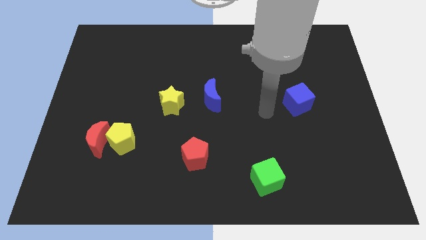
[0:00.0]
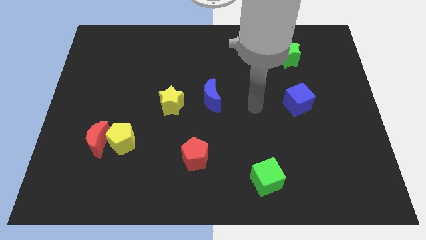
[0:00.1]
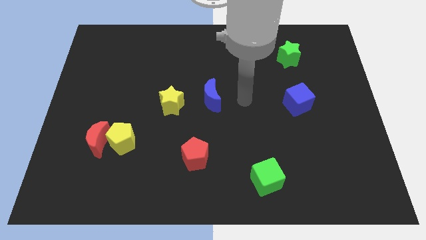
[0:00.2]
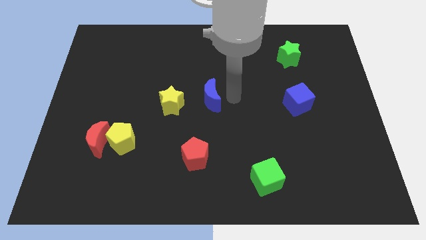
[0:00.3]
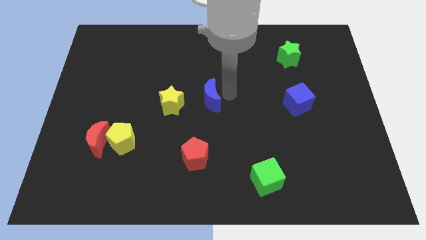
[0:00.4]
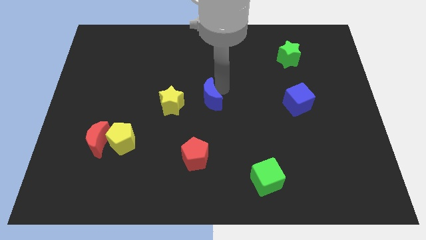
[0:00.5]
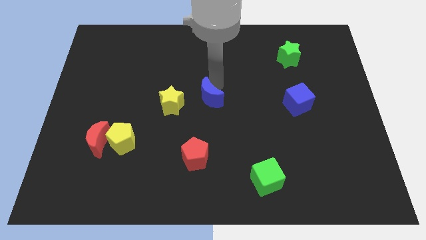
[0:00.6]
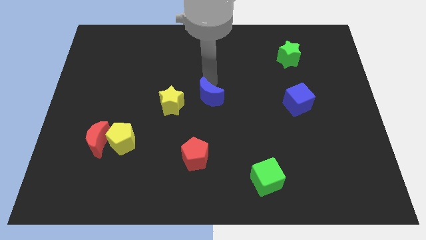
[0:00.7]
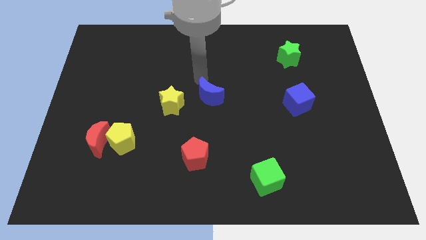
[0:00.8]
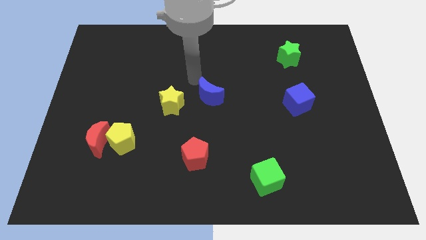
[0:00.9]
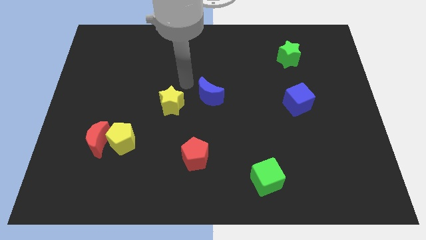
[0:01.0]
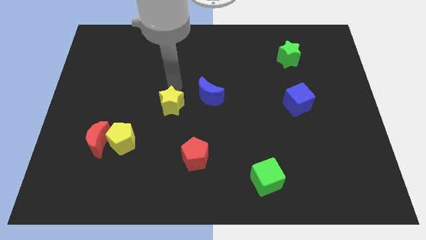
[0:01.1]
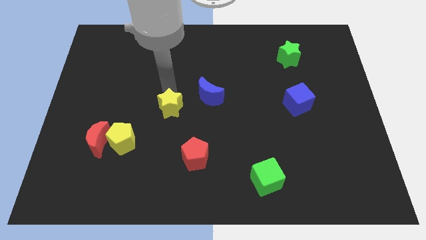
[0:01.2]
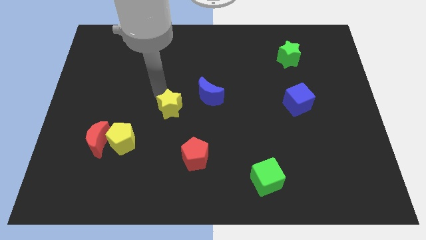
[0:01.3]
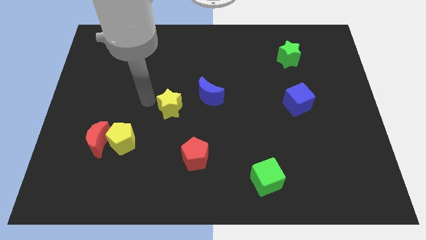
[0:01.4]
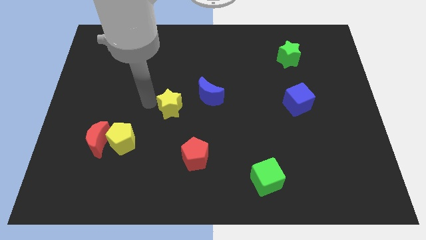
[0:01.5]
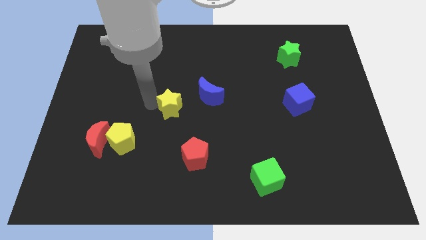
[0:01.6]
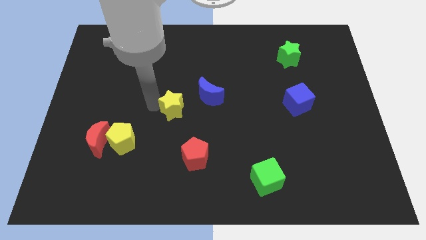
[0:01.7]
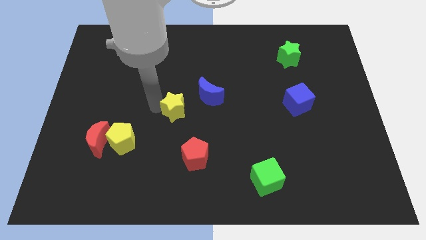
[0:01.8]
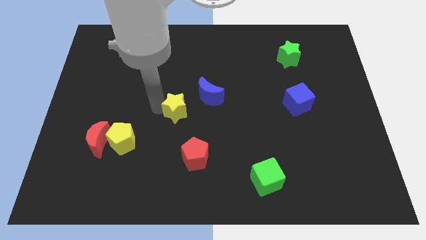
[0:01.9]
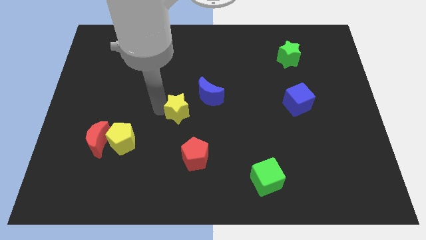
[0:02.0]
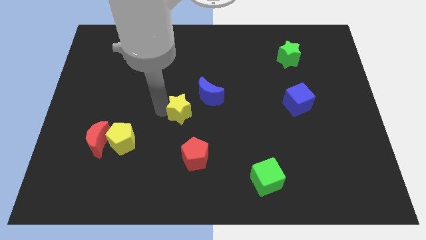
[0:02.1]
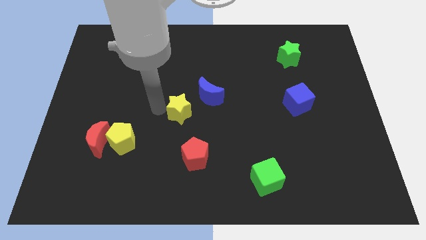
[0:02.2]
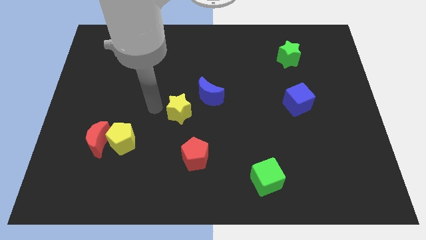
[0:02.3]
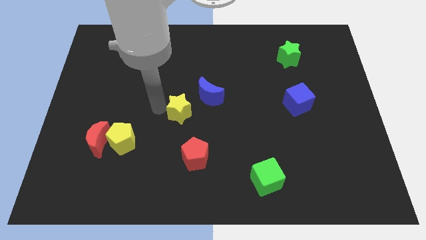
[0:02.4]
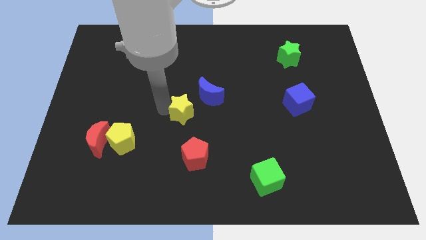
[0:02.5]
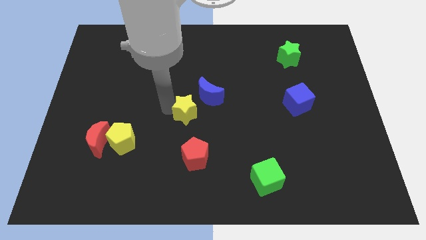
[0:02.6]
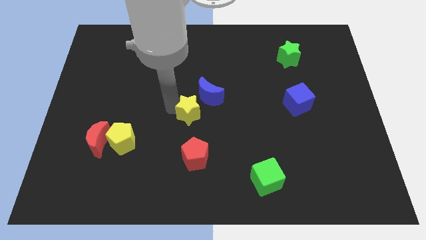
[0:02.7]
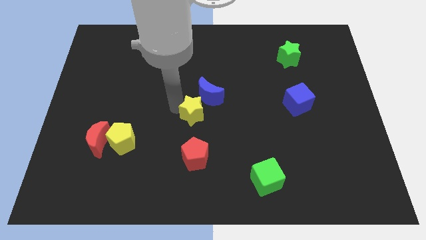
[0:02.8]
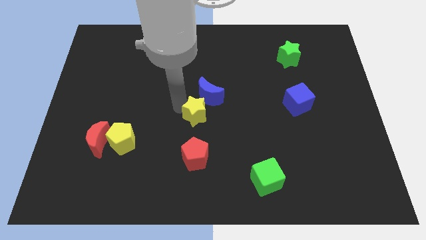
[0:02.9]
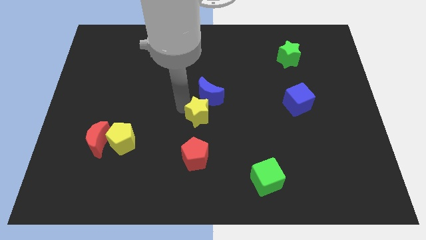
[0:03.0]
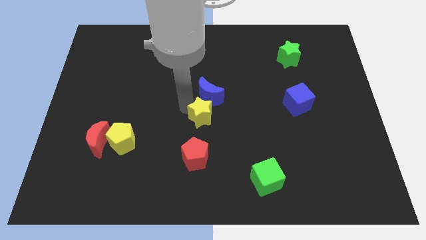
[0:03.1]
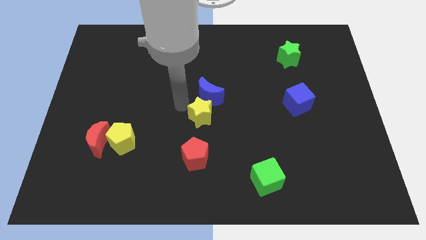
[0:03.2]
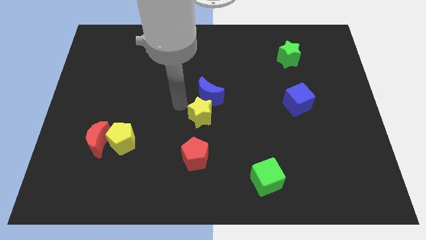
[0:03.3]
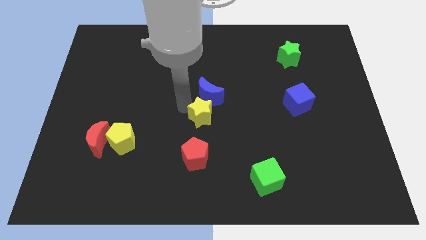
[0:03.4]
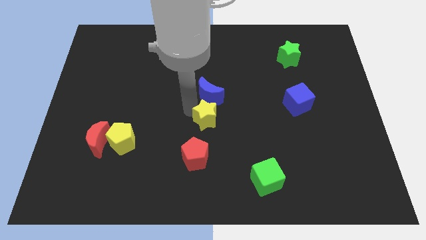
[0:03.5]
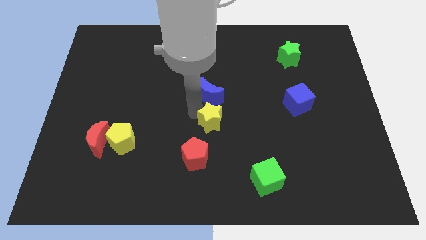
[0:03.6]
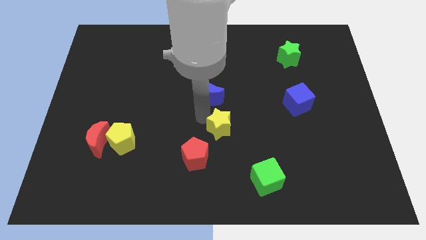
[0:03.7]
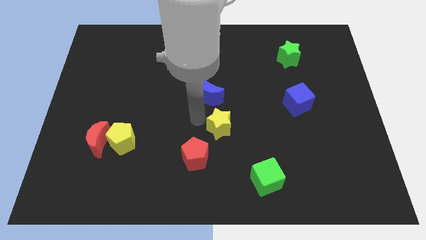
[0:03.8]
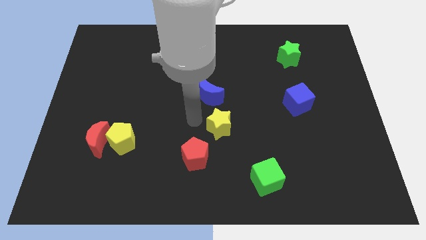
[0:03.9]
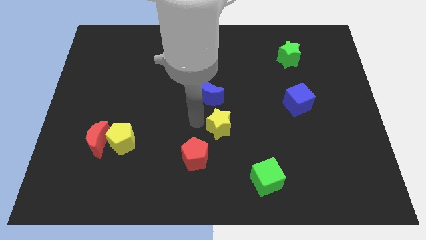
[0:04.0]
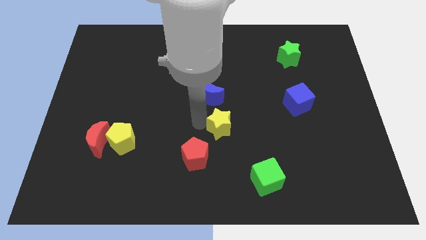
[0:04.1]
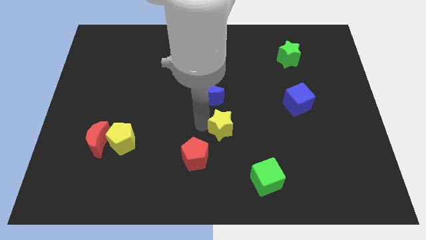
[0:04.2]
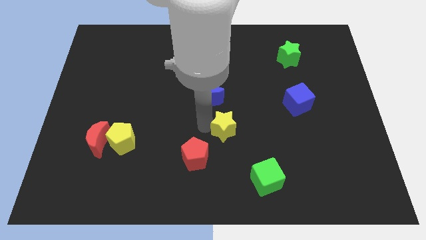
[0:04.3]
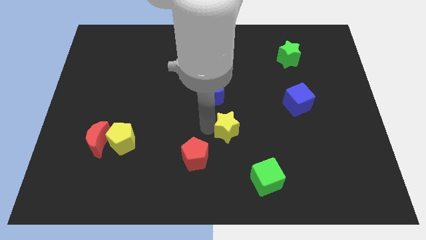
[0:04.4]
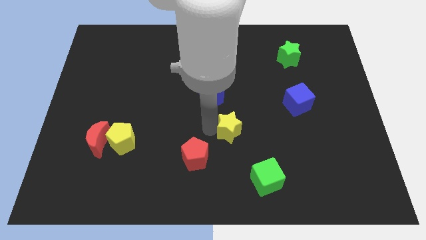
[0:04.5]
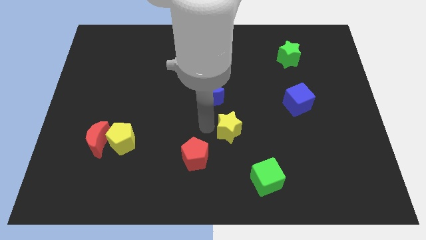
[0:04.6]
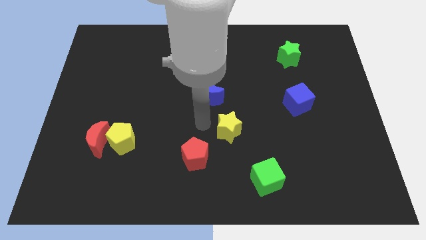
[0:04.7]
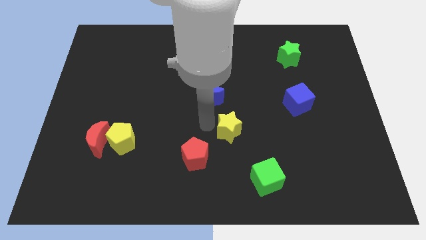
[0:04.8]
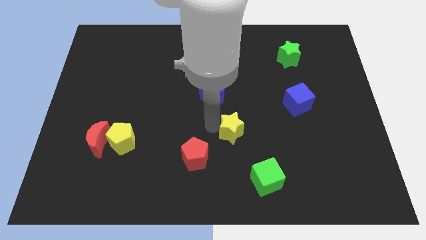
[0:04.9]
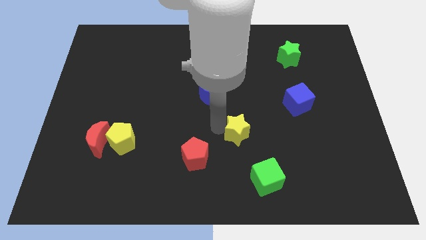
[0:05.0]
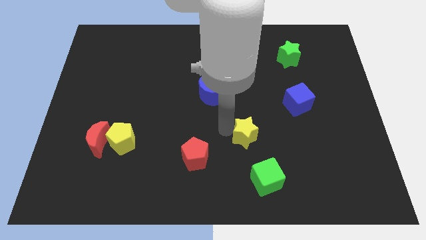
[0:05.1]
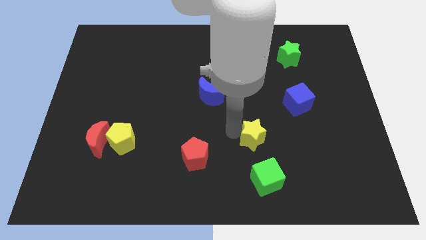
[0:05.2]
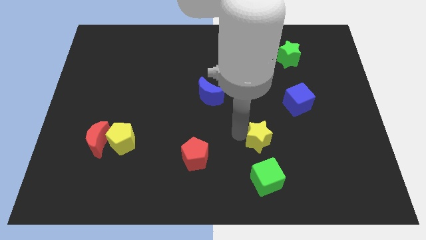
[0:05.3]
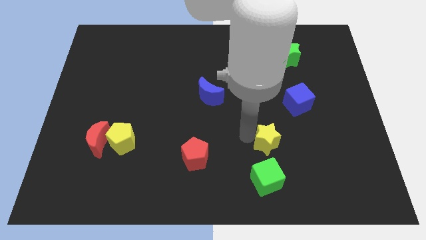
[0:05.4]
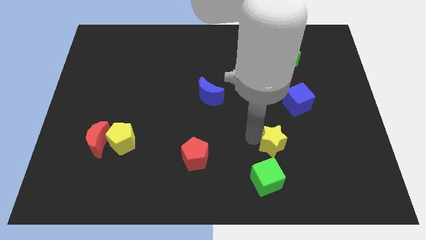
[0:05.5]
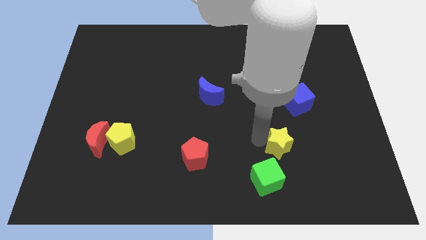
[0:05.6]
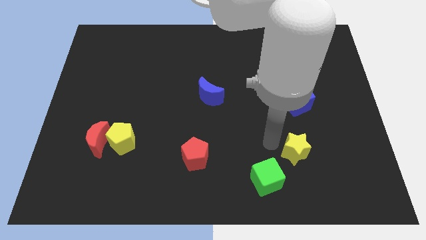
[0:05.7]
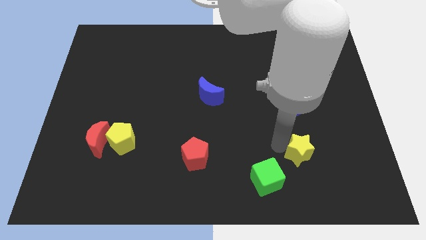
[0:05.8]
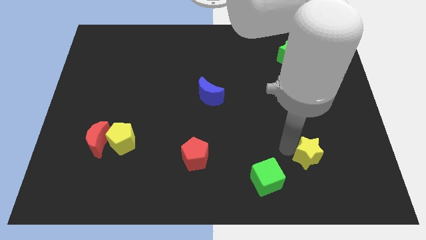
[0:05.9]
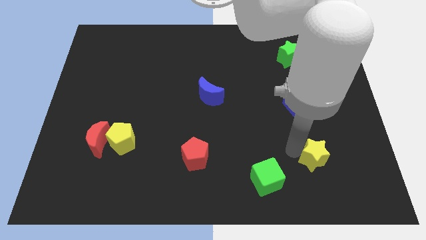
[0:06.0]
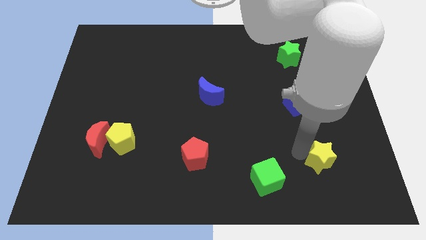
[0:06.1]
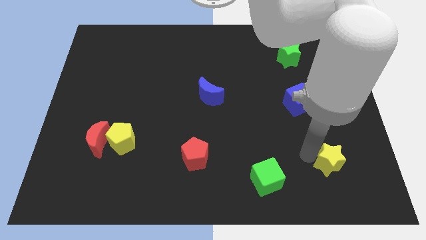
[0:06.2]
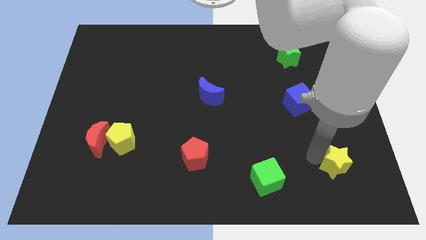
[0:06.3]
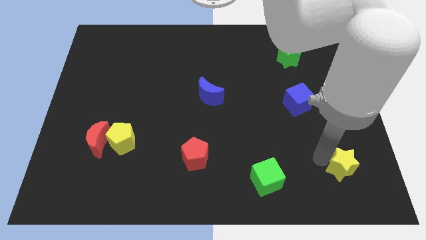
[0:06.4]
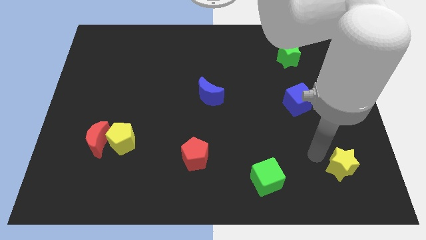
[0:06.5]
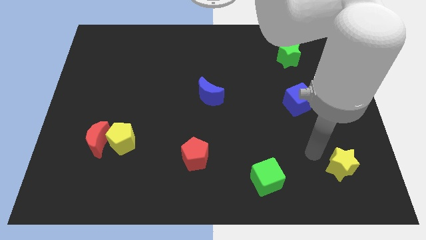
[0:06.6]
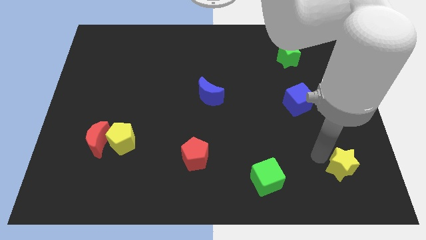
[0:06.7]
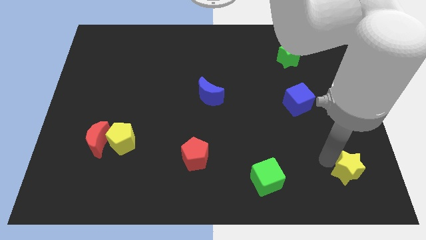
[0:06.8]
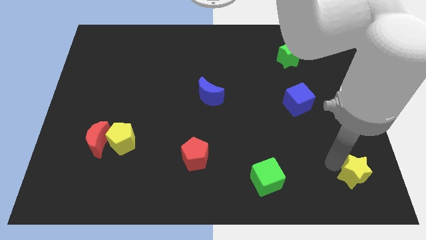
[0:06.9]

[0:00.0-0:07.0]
move the yellow star to the bottom right of the board
